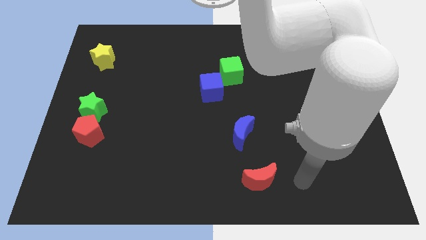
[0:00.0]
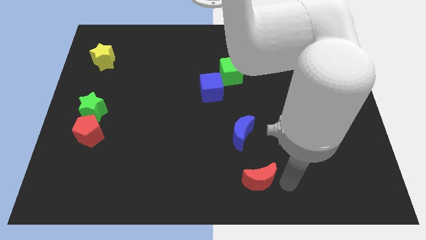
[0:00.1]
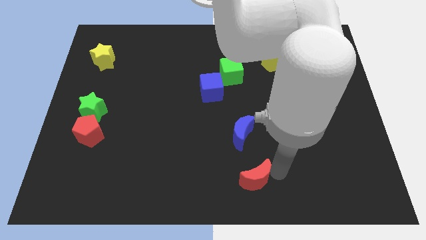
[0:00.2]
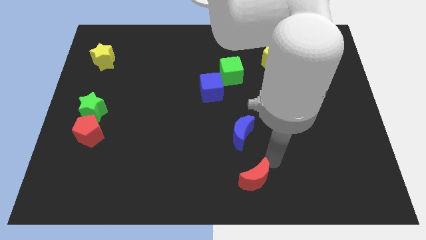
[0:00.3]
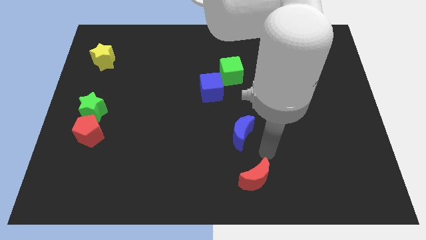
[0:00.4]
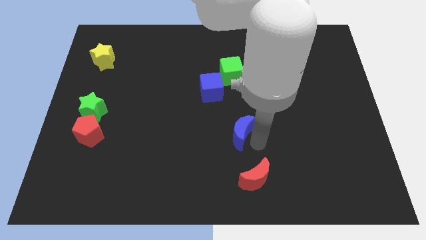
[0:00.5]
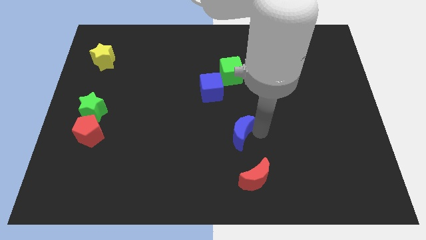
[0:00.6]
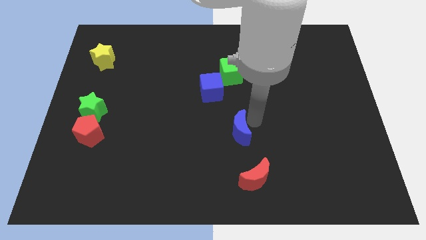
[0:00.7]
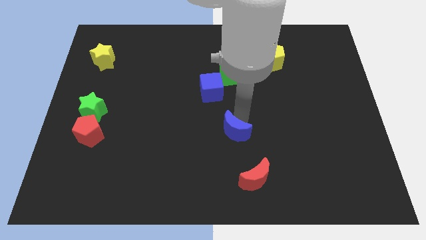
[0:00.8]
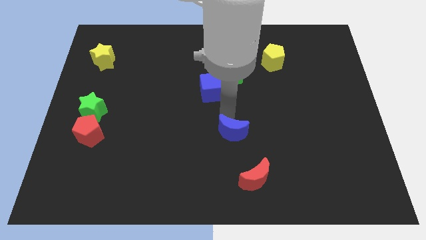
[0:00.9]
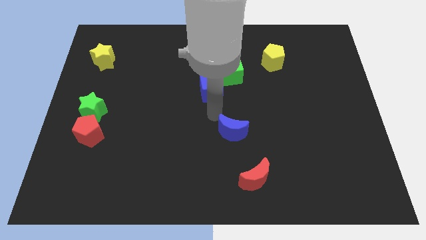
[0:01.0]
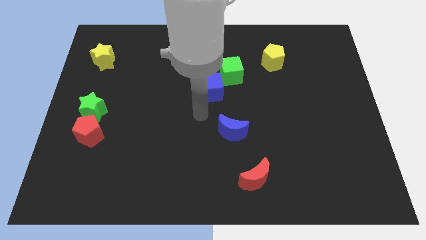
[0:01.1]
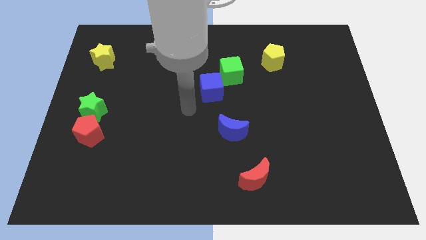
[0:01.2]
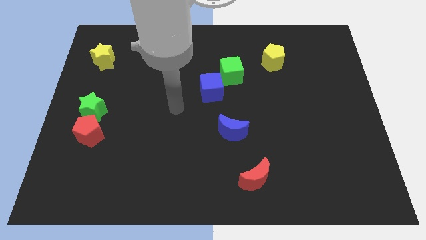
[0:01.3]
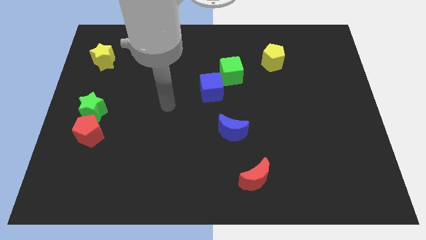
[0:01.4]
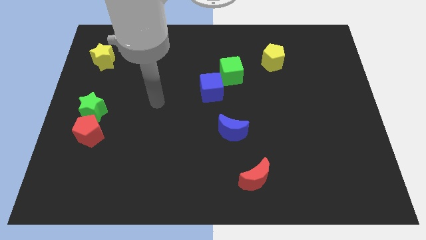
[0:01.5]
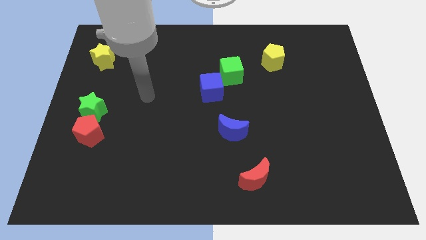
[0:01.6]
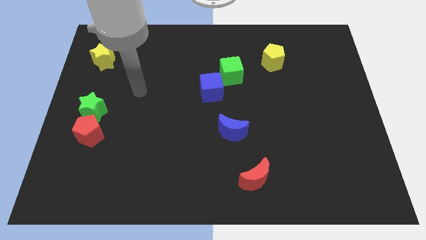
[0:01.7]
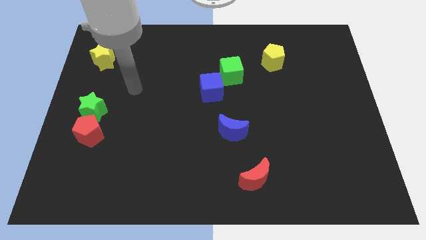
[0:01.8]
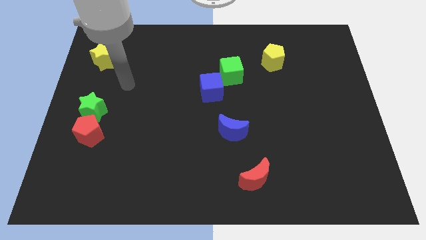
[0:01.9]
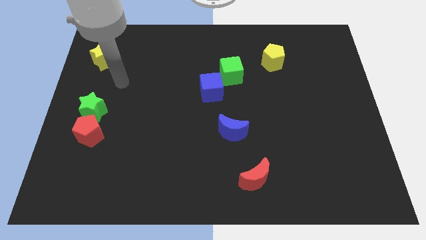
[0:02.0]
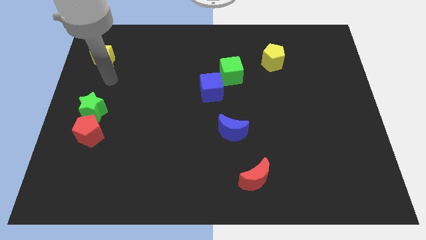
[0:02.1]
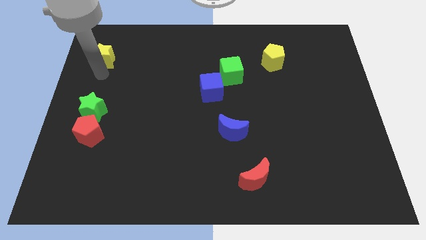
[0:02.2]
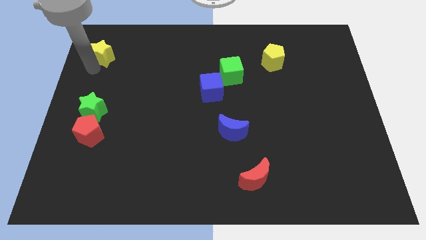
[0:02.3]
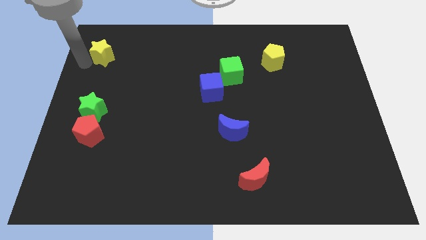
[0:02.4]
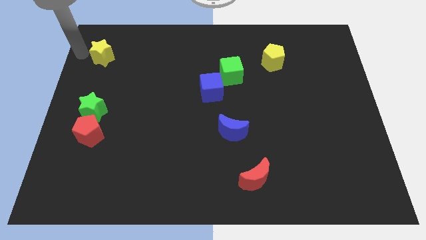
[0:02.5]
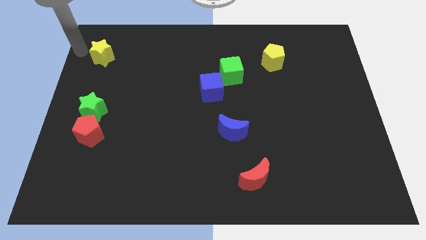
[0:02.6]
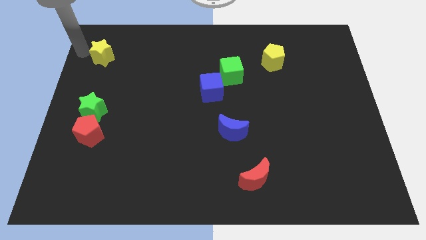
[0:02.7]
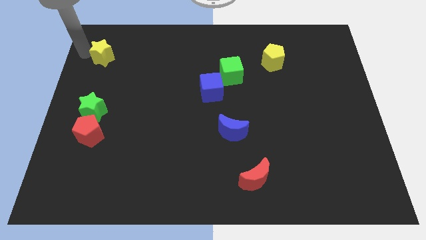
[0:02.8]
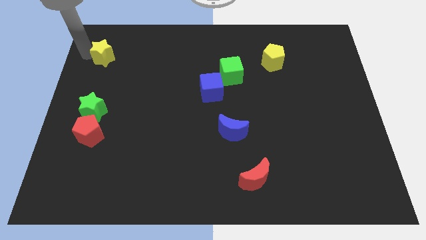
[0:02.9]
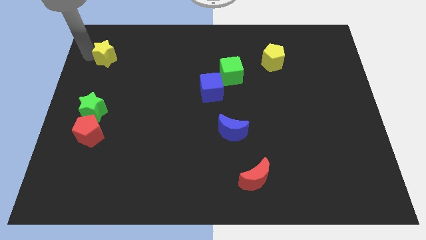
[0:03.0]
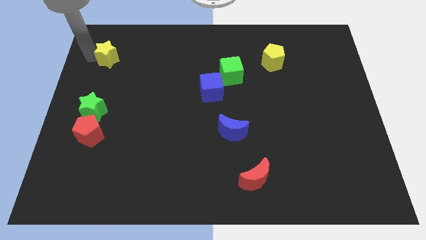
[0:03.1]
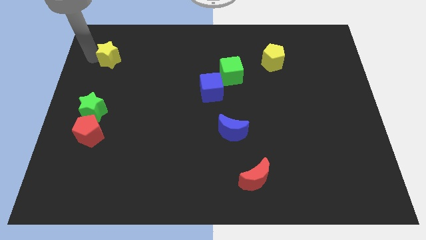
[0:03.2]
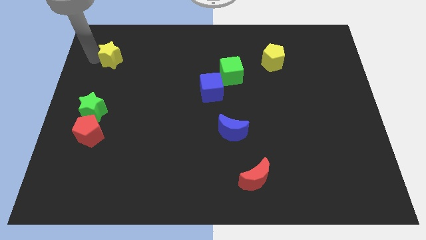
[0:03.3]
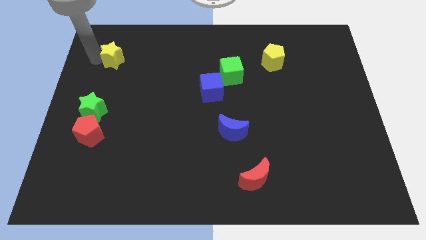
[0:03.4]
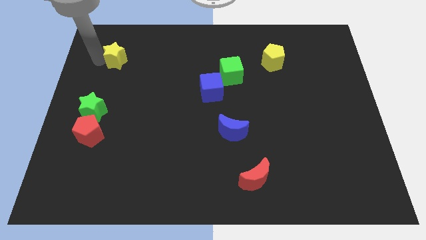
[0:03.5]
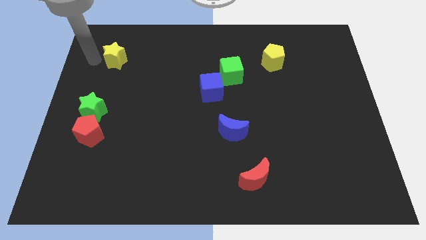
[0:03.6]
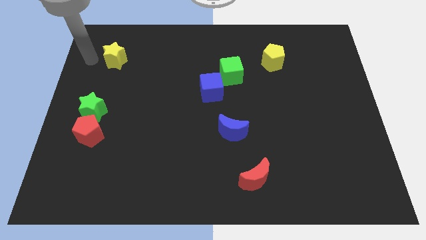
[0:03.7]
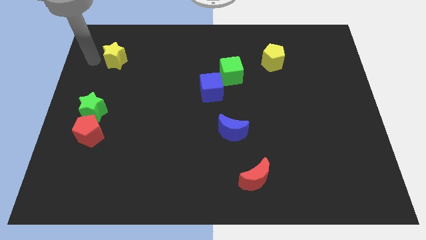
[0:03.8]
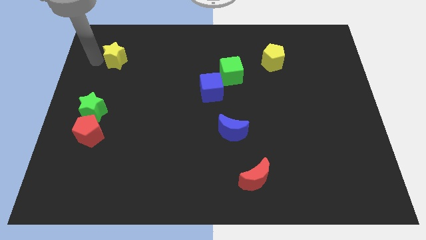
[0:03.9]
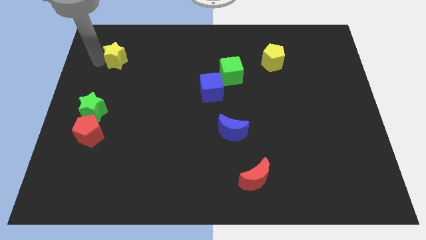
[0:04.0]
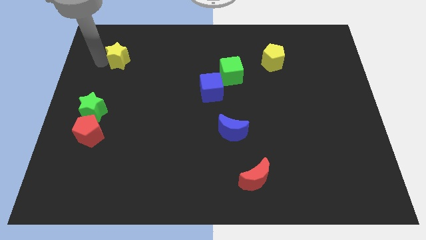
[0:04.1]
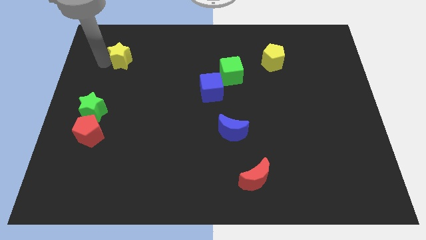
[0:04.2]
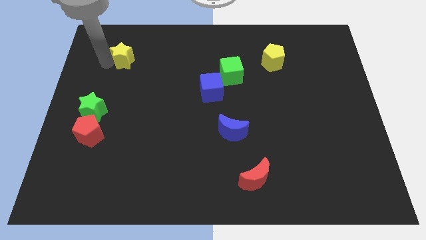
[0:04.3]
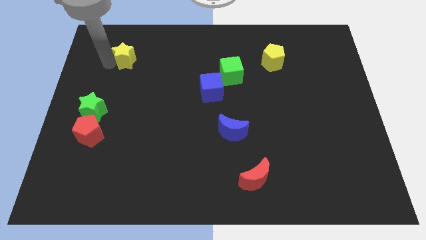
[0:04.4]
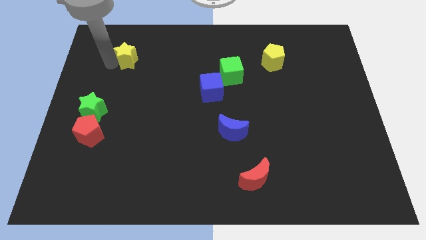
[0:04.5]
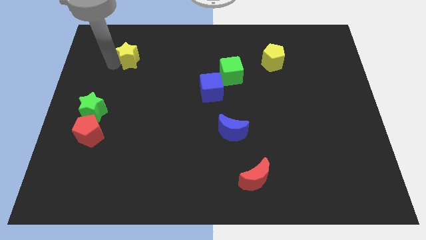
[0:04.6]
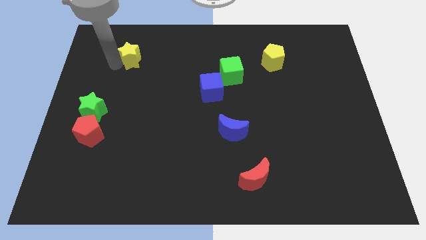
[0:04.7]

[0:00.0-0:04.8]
move the yellow star a little bit to the right

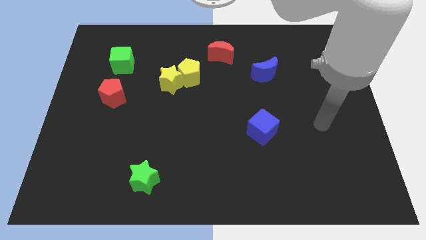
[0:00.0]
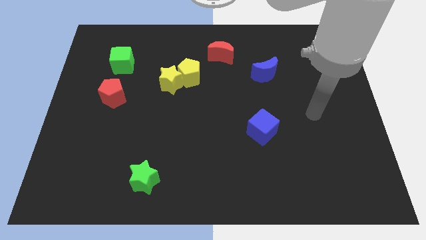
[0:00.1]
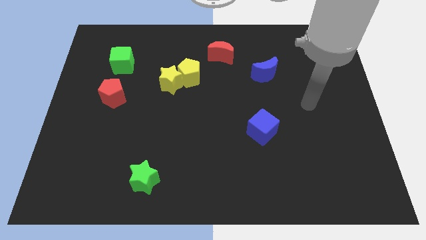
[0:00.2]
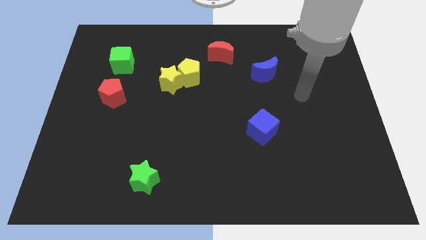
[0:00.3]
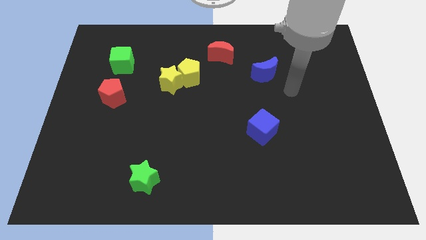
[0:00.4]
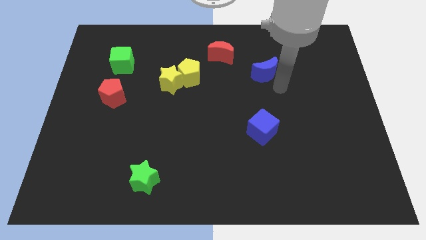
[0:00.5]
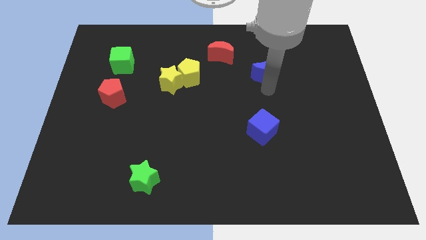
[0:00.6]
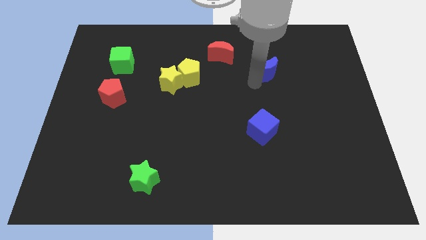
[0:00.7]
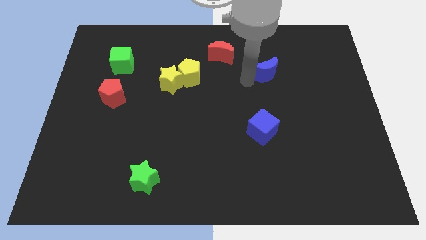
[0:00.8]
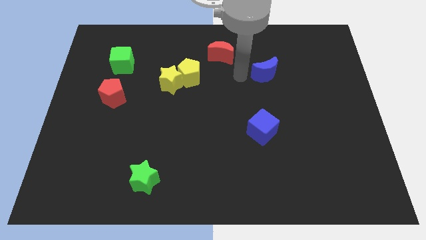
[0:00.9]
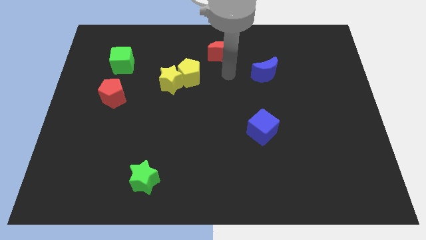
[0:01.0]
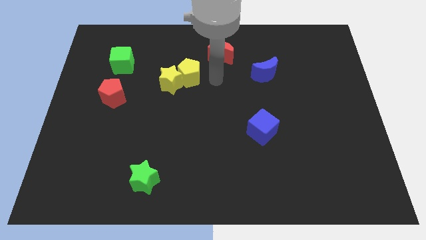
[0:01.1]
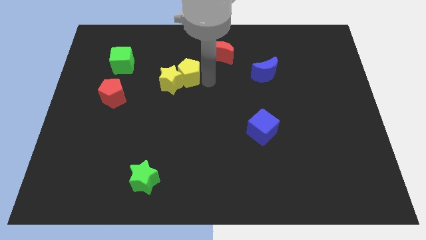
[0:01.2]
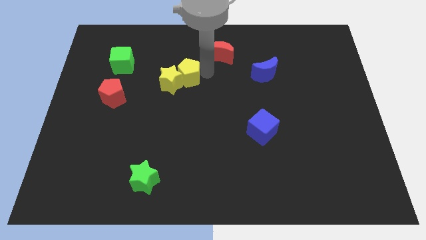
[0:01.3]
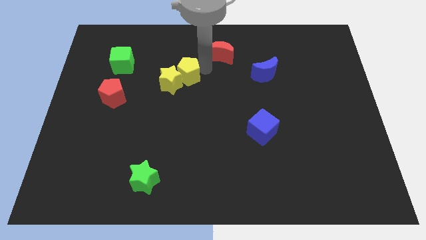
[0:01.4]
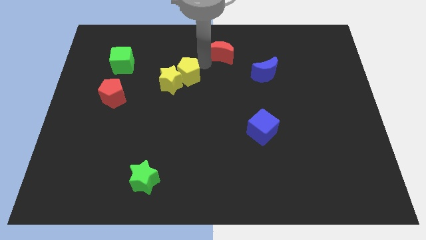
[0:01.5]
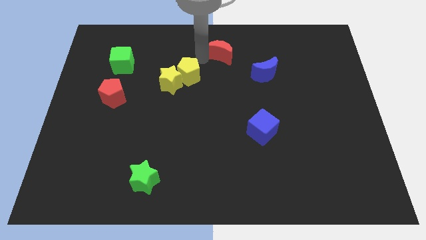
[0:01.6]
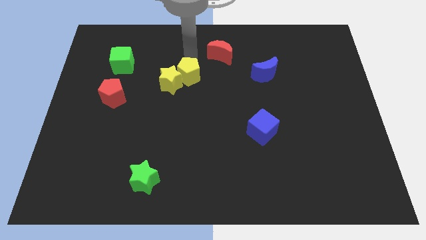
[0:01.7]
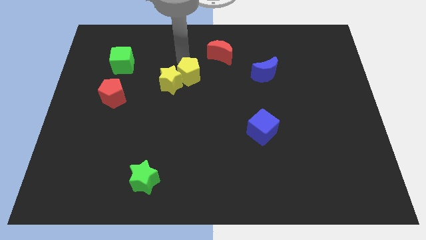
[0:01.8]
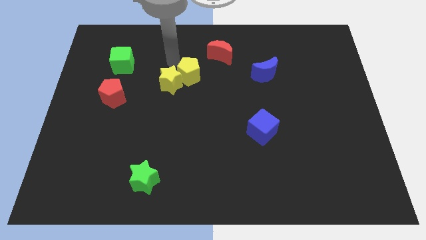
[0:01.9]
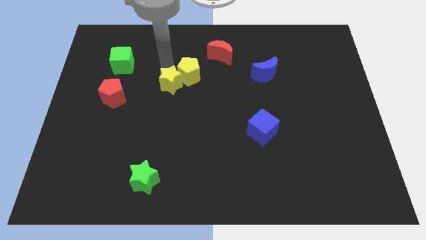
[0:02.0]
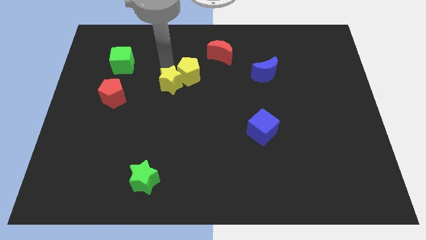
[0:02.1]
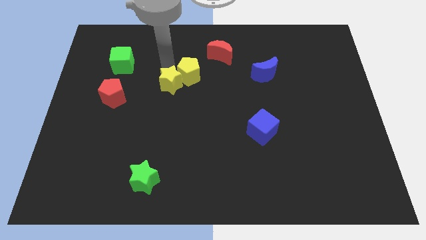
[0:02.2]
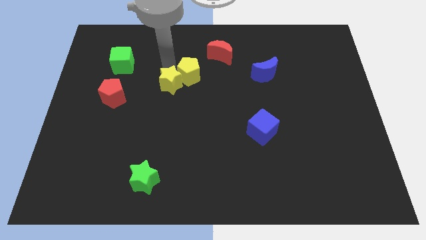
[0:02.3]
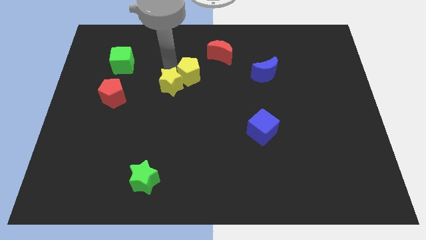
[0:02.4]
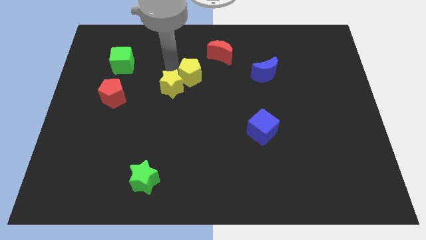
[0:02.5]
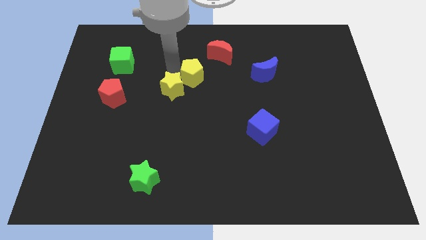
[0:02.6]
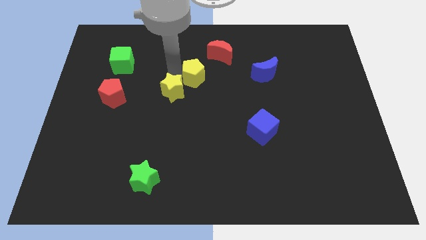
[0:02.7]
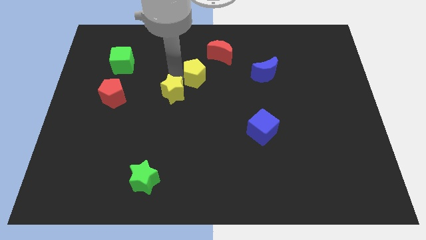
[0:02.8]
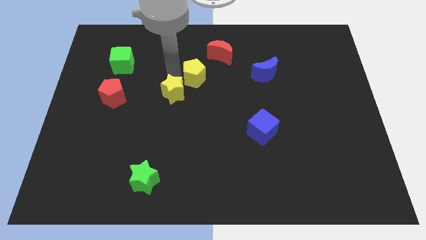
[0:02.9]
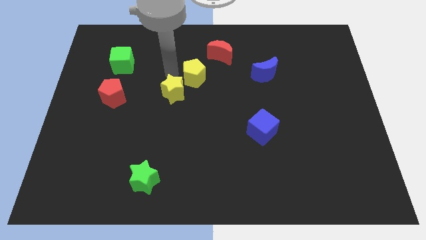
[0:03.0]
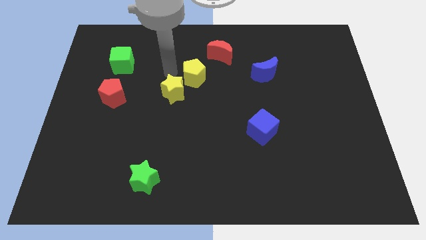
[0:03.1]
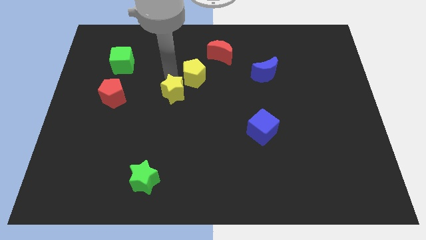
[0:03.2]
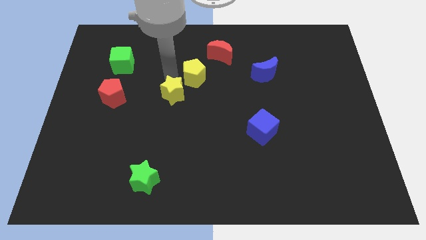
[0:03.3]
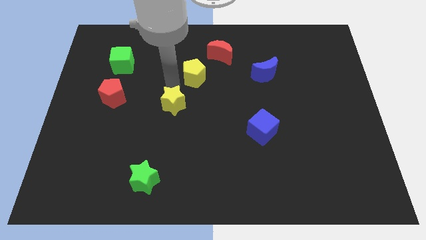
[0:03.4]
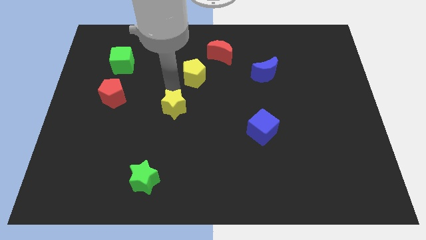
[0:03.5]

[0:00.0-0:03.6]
slightly push the yellow star downwards

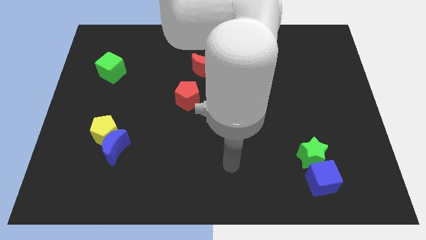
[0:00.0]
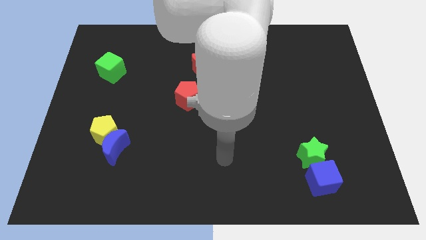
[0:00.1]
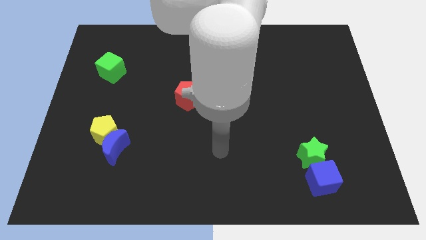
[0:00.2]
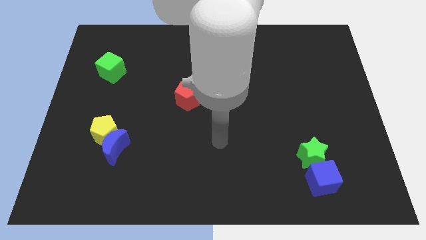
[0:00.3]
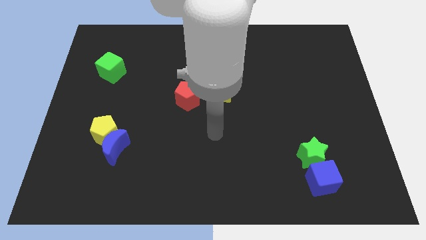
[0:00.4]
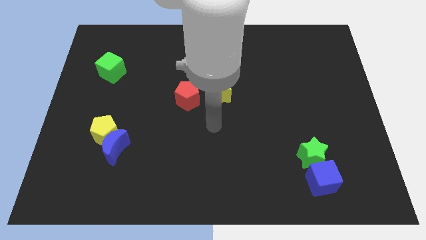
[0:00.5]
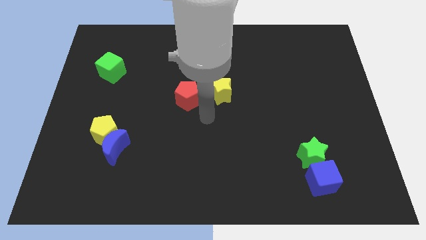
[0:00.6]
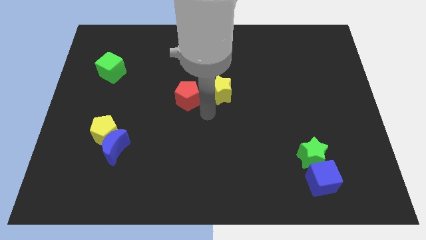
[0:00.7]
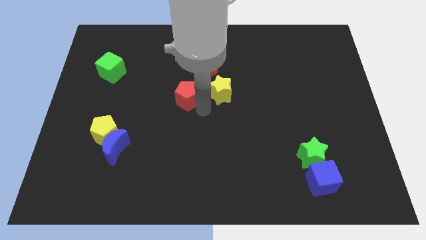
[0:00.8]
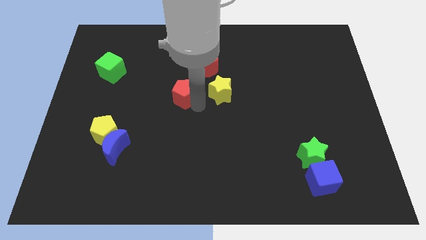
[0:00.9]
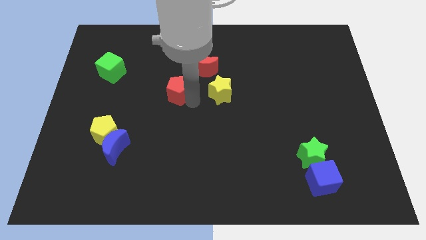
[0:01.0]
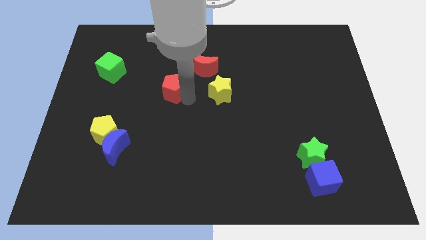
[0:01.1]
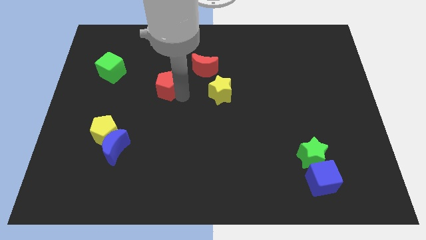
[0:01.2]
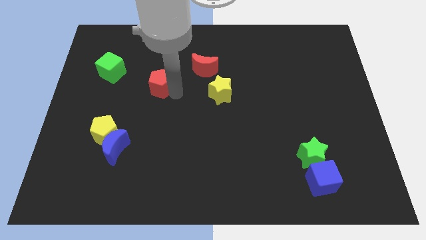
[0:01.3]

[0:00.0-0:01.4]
slightly push the red pentagon up and to the left diagonally
